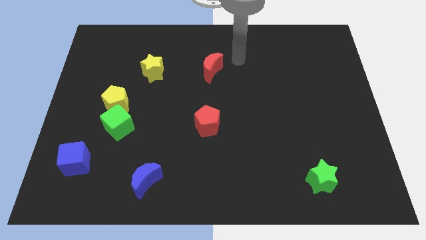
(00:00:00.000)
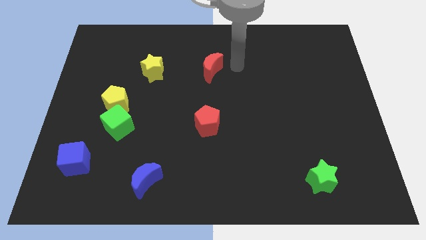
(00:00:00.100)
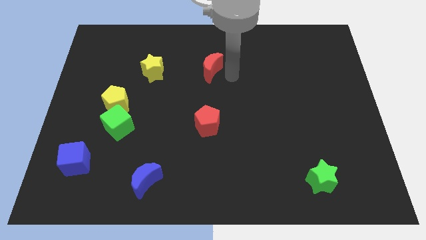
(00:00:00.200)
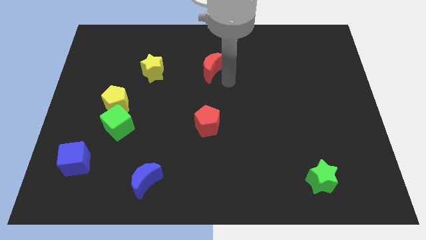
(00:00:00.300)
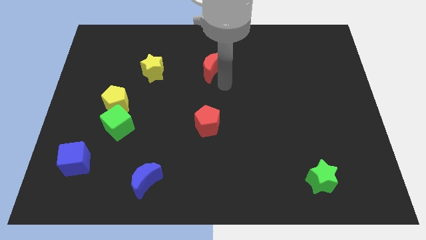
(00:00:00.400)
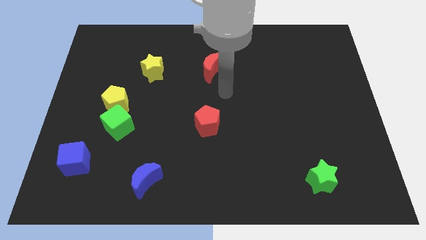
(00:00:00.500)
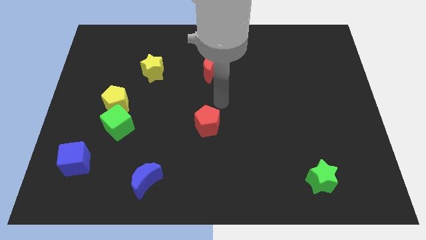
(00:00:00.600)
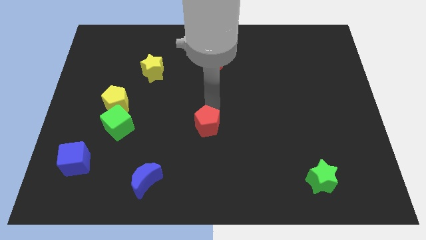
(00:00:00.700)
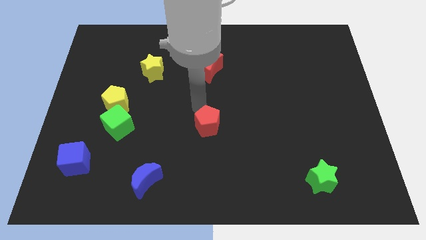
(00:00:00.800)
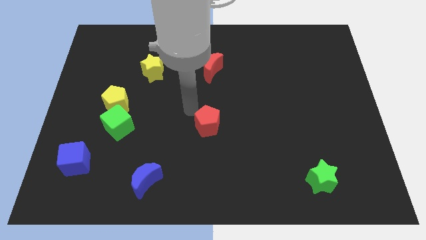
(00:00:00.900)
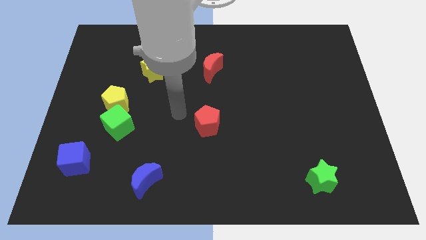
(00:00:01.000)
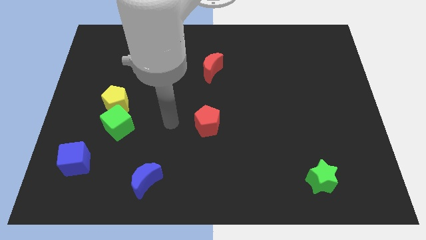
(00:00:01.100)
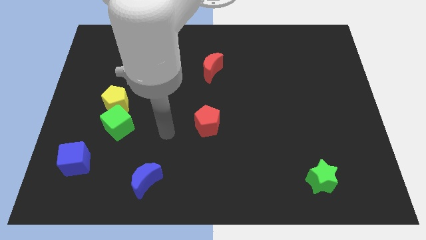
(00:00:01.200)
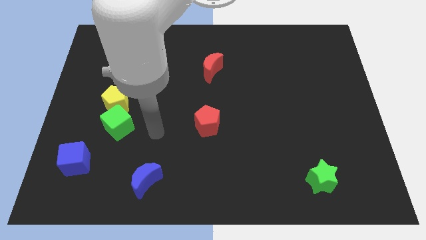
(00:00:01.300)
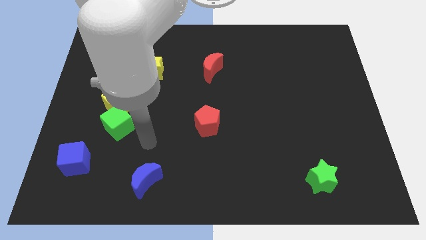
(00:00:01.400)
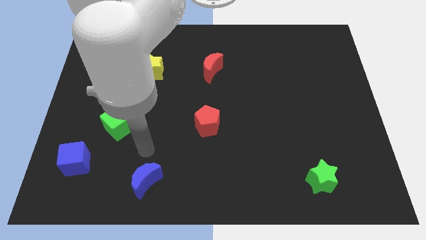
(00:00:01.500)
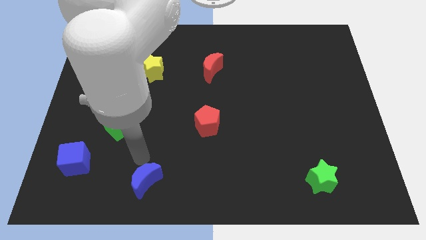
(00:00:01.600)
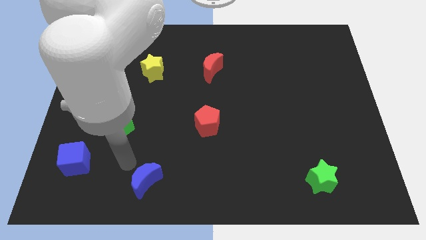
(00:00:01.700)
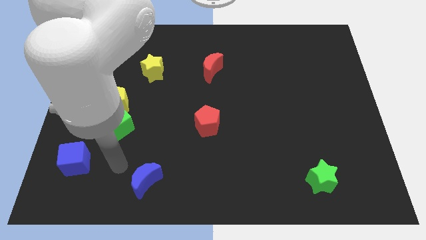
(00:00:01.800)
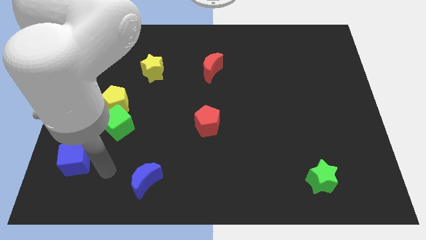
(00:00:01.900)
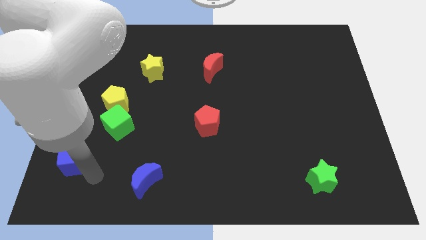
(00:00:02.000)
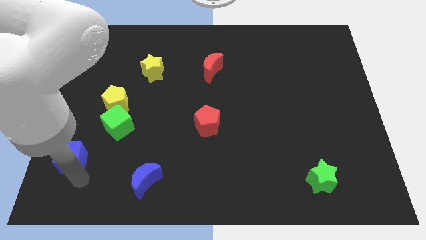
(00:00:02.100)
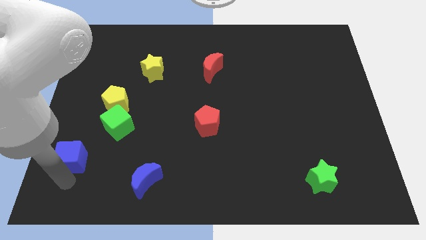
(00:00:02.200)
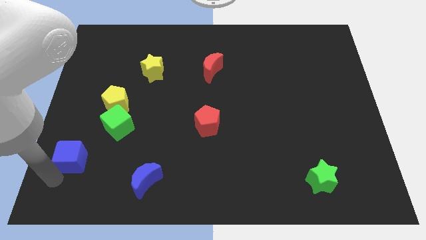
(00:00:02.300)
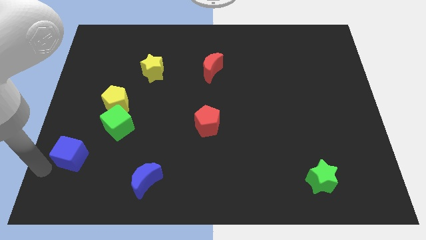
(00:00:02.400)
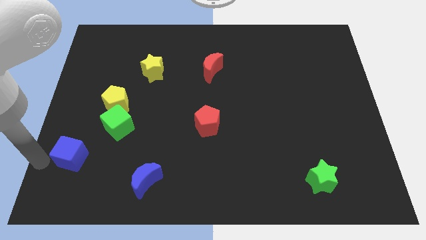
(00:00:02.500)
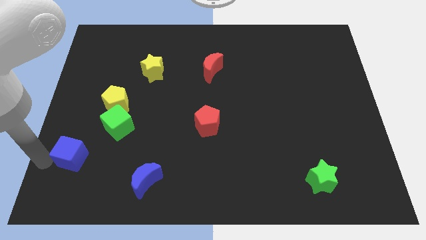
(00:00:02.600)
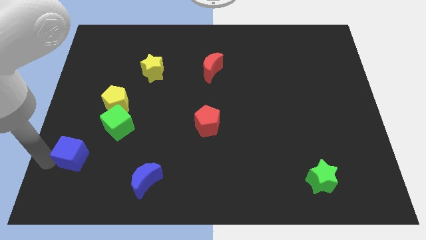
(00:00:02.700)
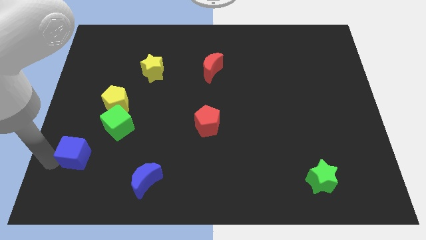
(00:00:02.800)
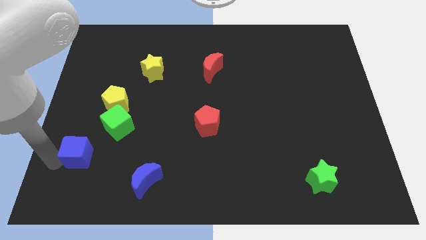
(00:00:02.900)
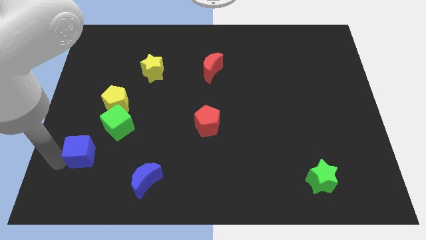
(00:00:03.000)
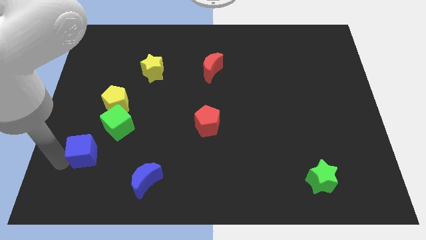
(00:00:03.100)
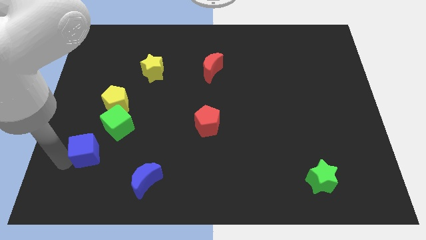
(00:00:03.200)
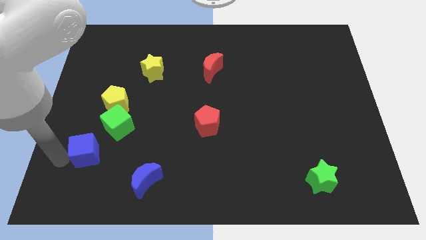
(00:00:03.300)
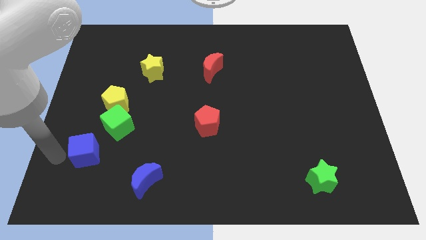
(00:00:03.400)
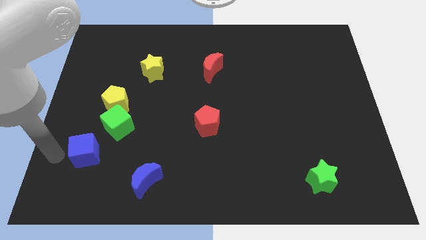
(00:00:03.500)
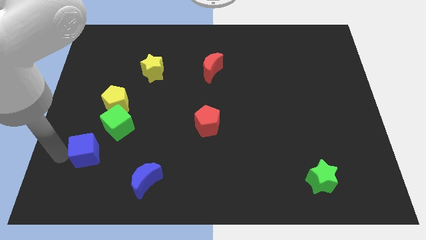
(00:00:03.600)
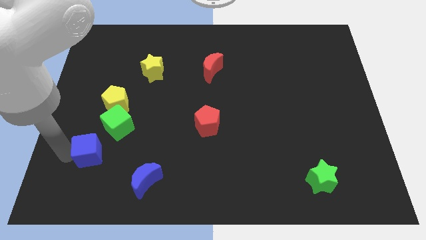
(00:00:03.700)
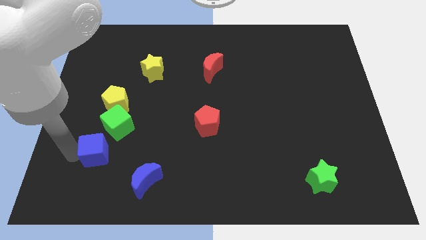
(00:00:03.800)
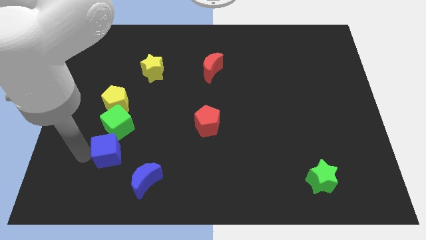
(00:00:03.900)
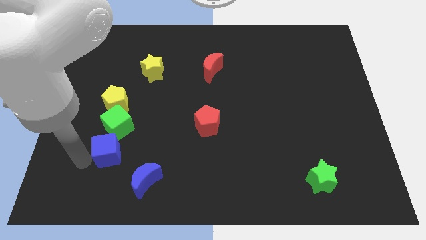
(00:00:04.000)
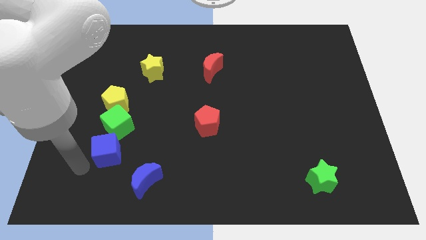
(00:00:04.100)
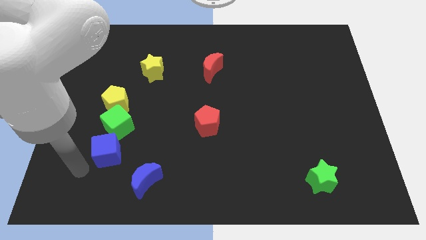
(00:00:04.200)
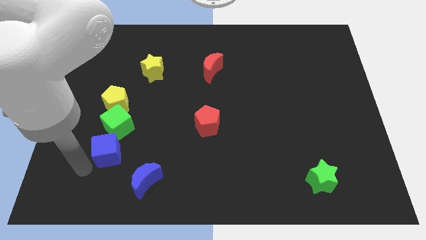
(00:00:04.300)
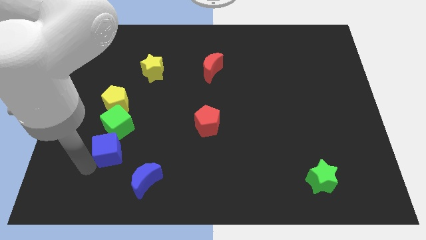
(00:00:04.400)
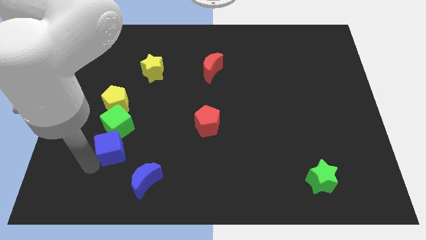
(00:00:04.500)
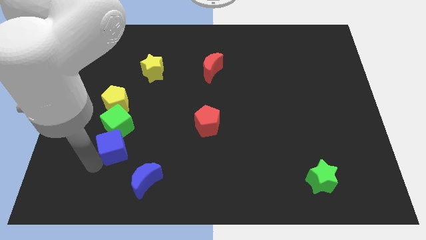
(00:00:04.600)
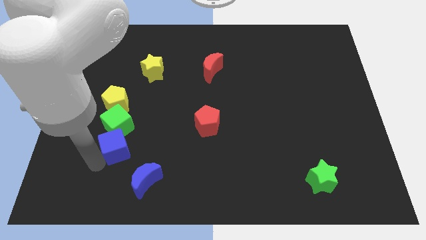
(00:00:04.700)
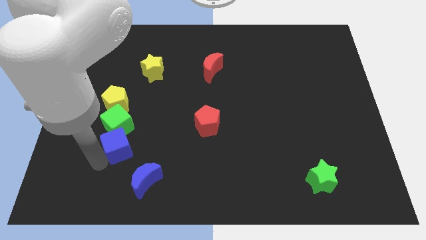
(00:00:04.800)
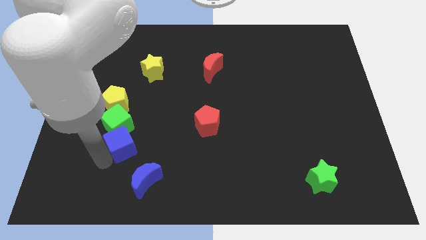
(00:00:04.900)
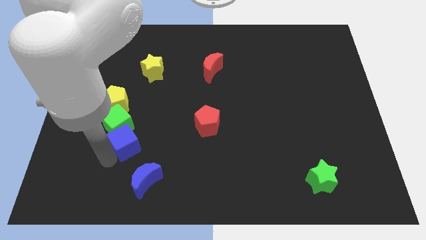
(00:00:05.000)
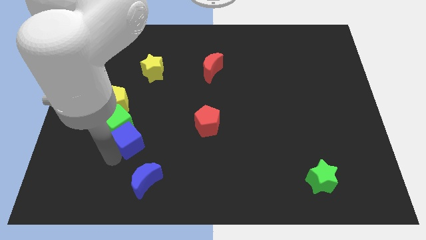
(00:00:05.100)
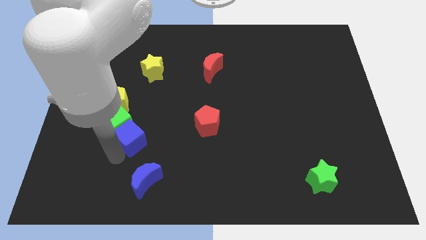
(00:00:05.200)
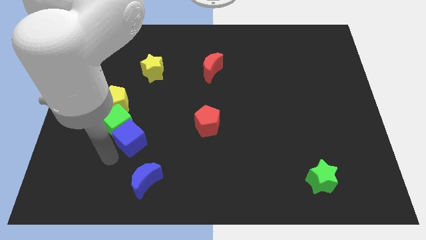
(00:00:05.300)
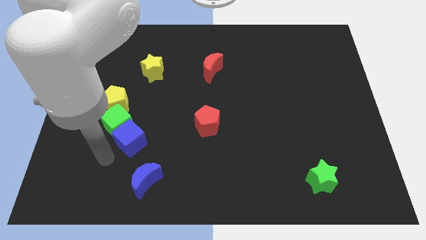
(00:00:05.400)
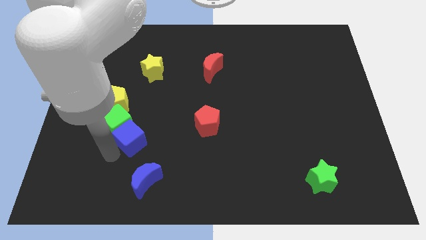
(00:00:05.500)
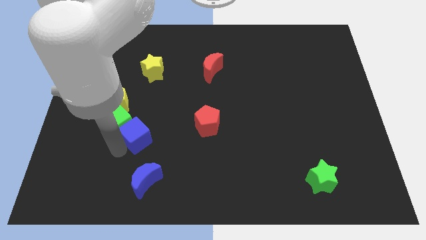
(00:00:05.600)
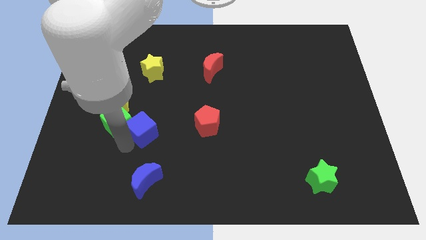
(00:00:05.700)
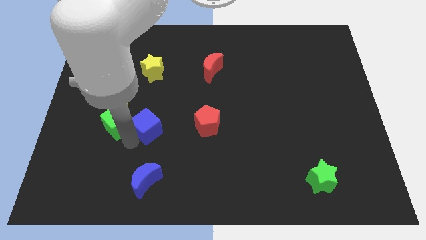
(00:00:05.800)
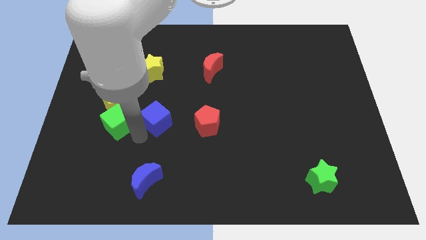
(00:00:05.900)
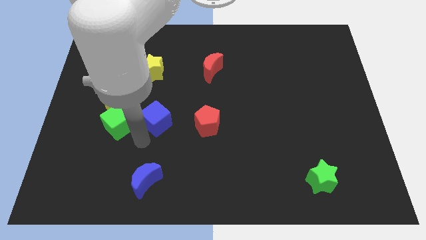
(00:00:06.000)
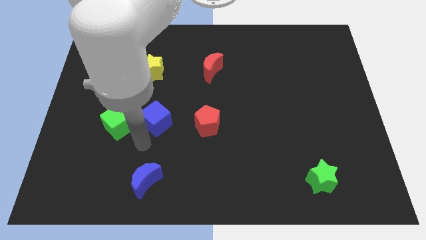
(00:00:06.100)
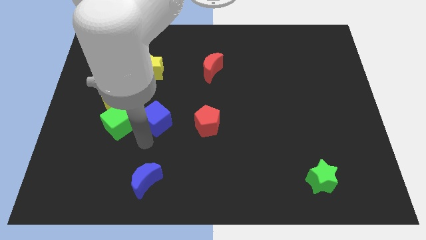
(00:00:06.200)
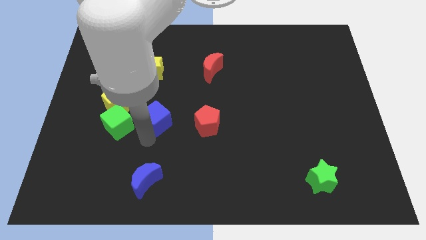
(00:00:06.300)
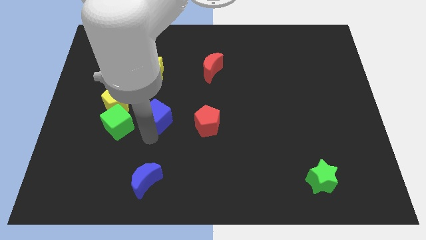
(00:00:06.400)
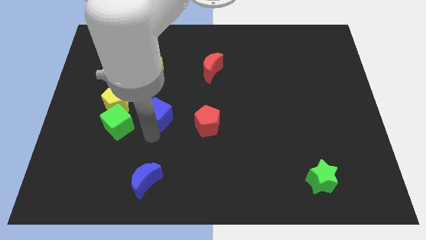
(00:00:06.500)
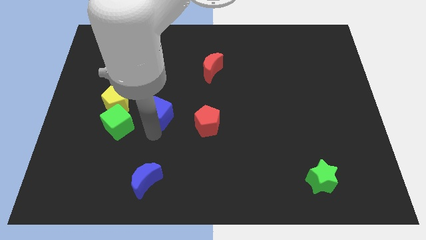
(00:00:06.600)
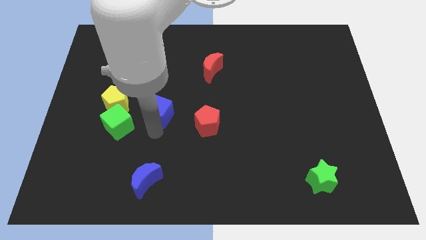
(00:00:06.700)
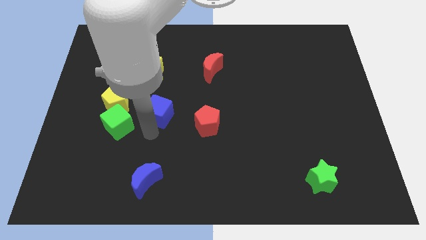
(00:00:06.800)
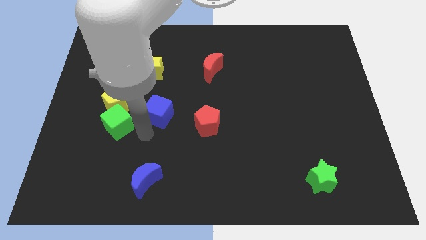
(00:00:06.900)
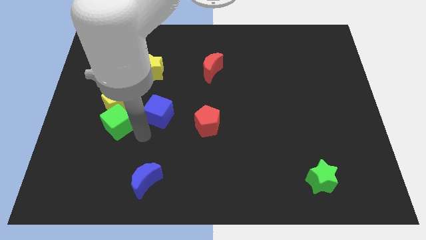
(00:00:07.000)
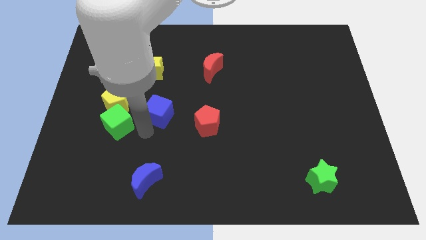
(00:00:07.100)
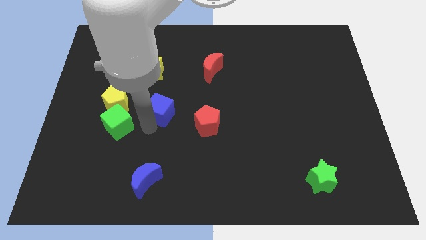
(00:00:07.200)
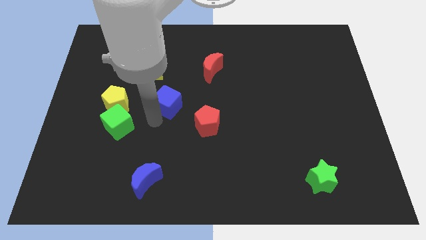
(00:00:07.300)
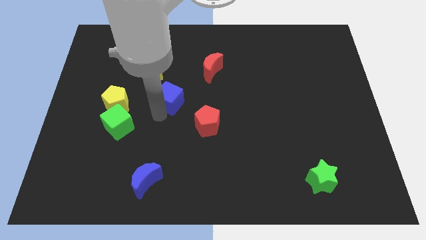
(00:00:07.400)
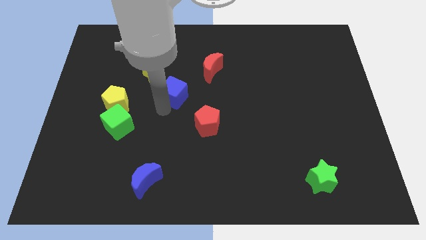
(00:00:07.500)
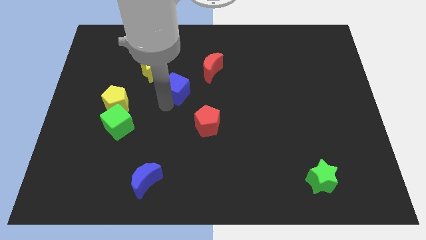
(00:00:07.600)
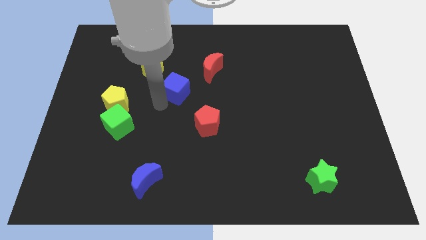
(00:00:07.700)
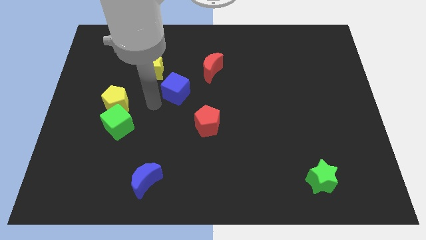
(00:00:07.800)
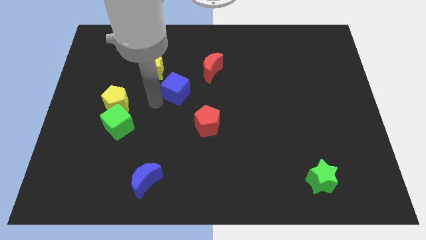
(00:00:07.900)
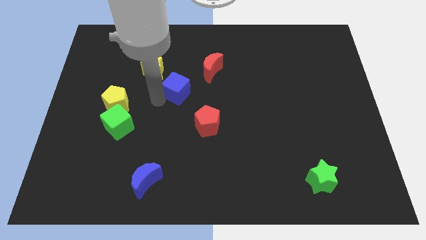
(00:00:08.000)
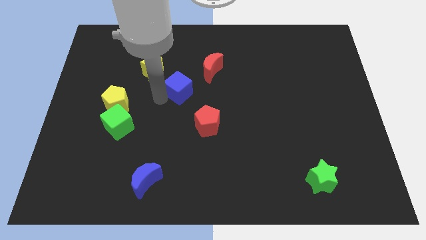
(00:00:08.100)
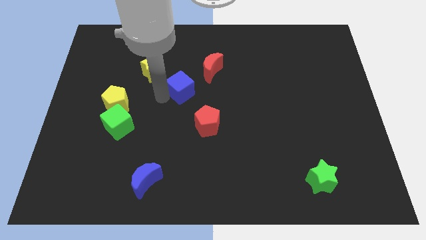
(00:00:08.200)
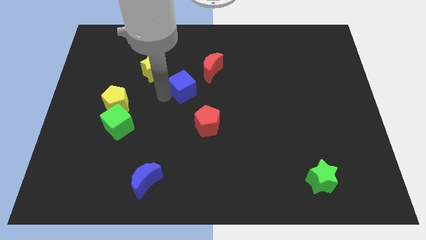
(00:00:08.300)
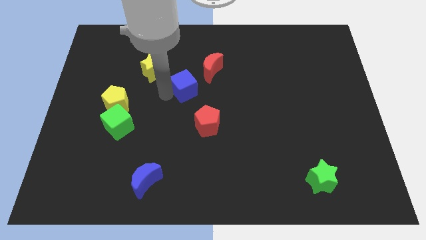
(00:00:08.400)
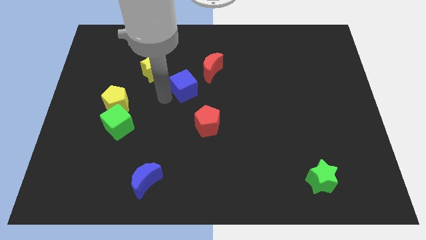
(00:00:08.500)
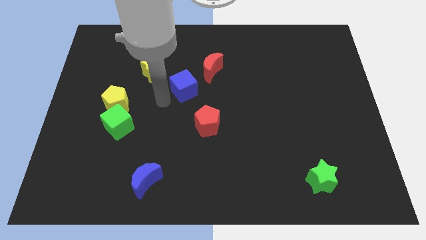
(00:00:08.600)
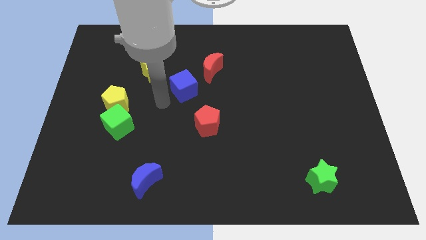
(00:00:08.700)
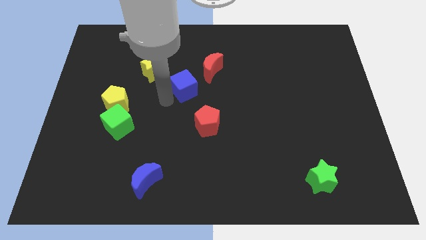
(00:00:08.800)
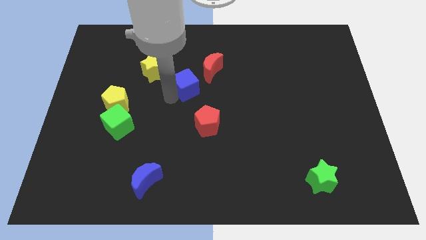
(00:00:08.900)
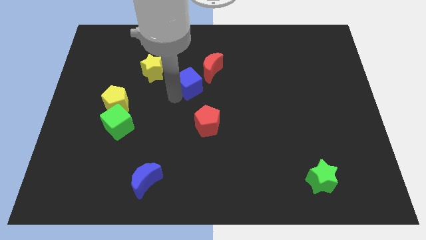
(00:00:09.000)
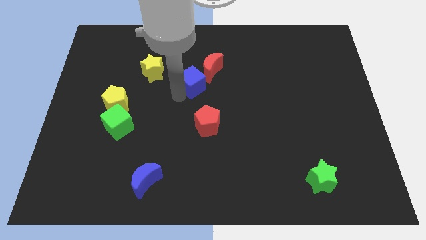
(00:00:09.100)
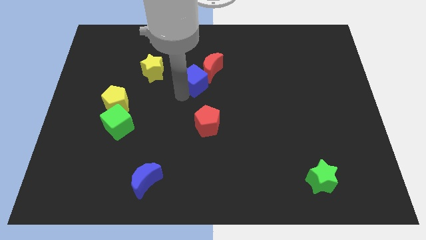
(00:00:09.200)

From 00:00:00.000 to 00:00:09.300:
move the blue cube towards the red moon
